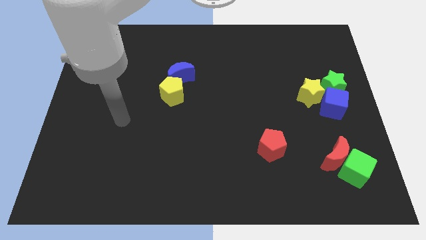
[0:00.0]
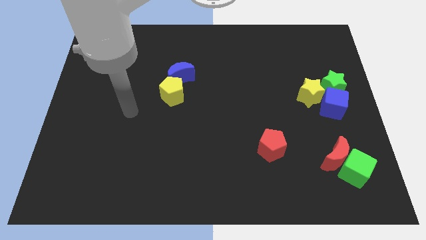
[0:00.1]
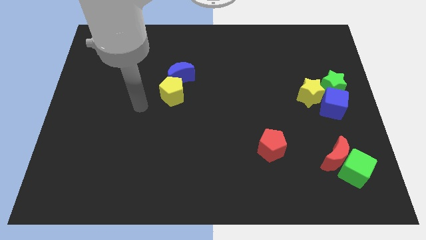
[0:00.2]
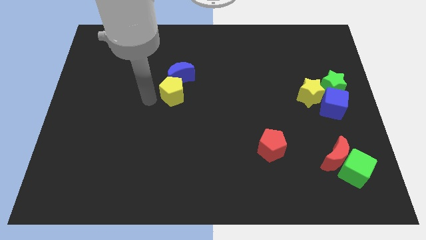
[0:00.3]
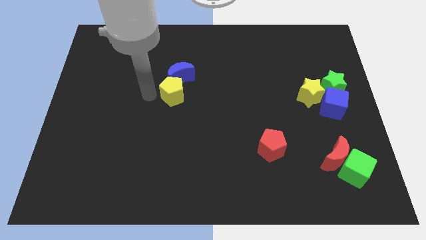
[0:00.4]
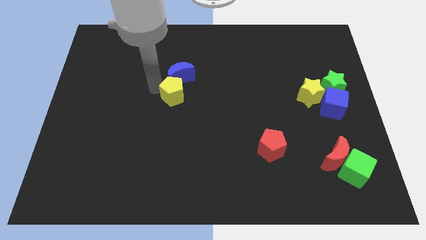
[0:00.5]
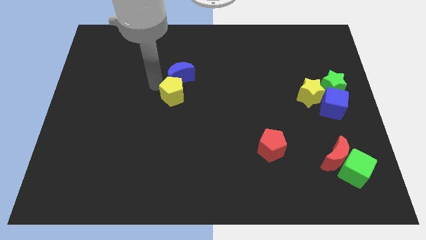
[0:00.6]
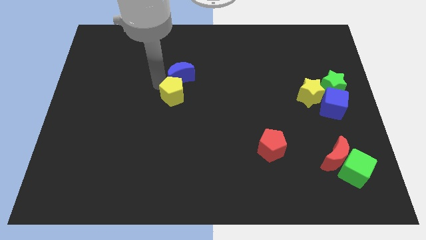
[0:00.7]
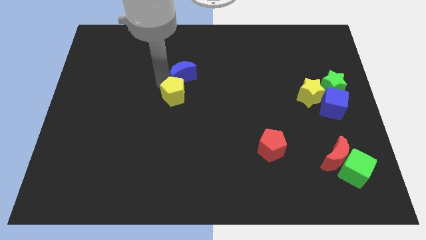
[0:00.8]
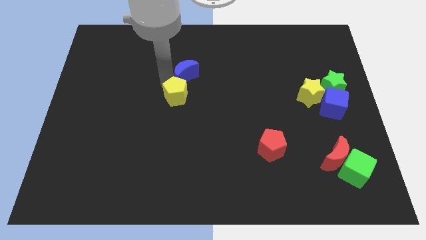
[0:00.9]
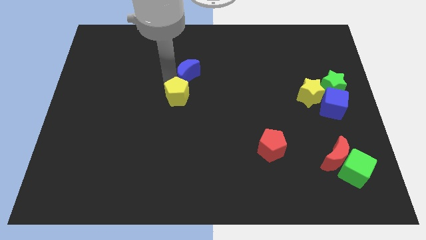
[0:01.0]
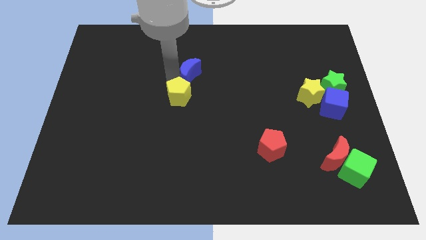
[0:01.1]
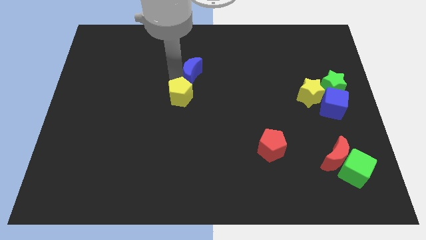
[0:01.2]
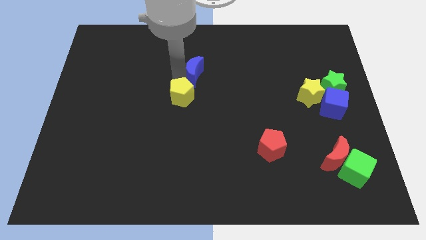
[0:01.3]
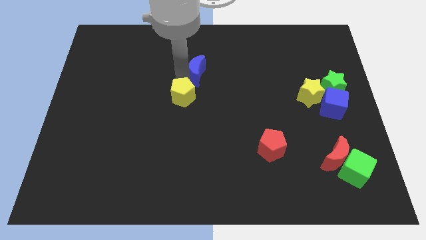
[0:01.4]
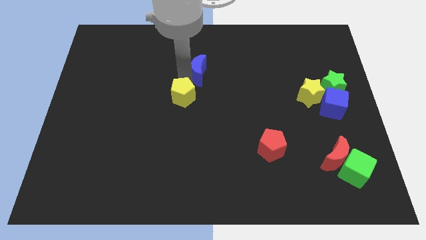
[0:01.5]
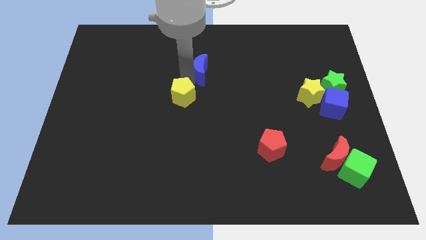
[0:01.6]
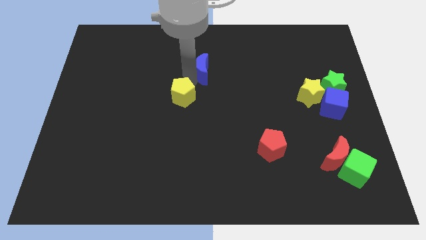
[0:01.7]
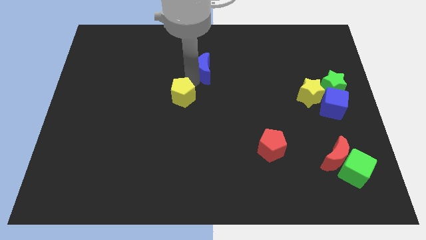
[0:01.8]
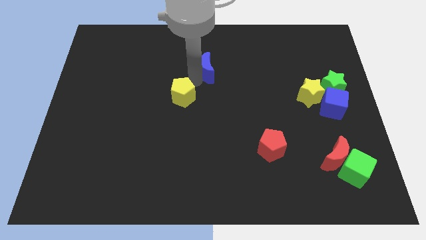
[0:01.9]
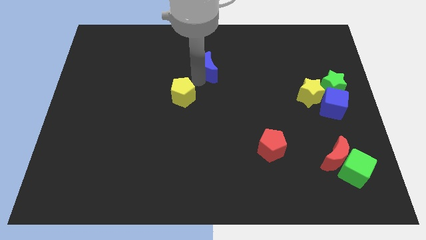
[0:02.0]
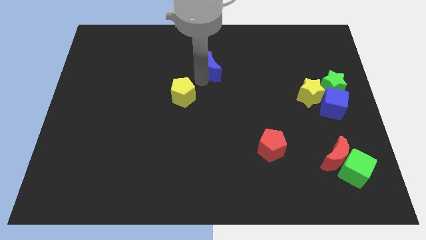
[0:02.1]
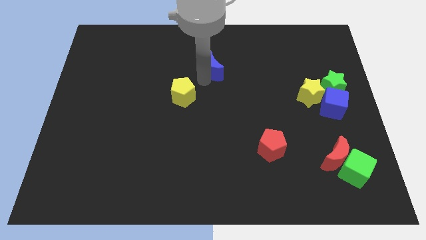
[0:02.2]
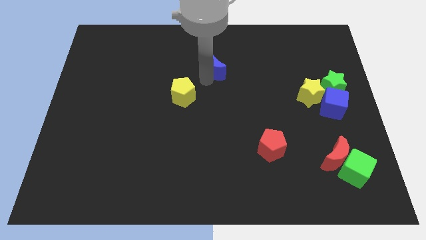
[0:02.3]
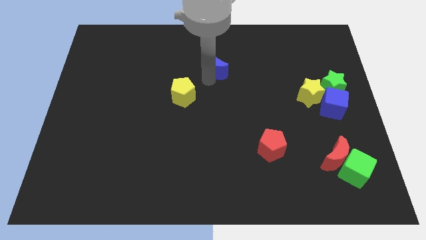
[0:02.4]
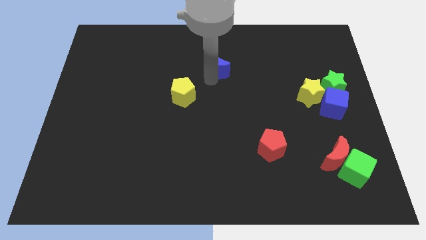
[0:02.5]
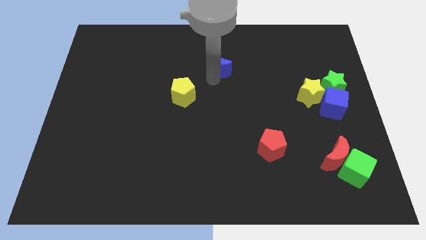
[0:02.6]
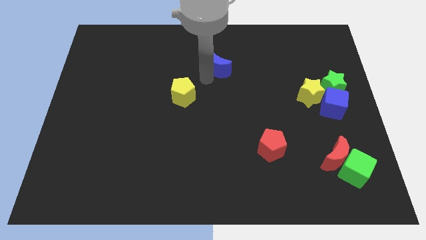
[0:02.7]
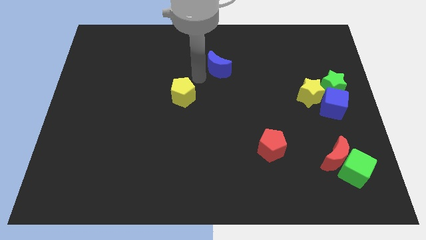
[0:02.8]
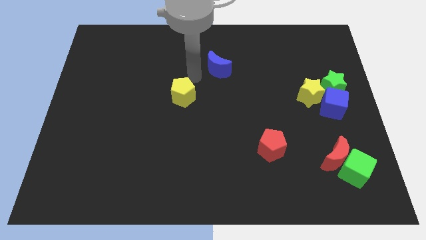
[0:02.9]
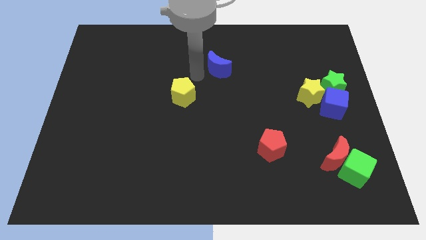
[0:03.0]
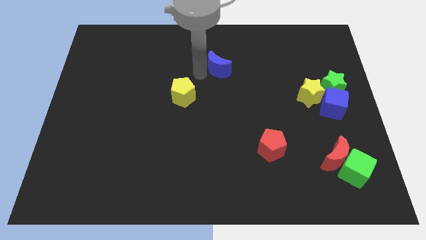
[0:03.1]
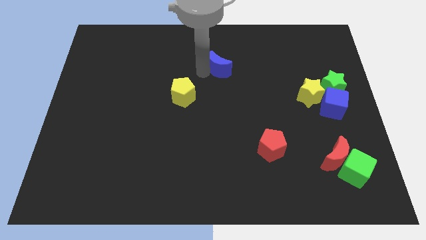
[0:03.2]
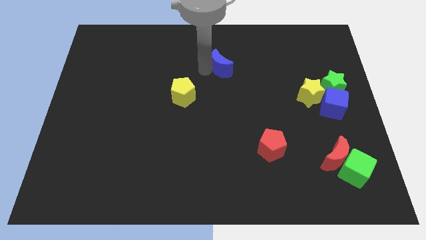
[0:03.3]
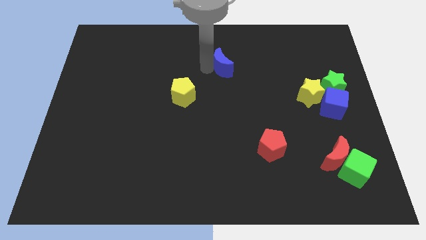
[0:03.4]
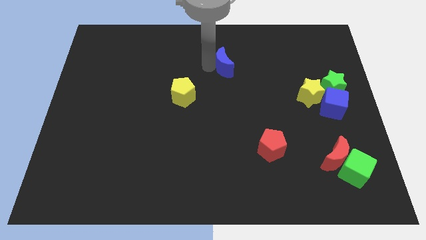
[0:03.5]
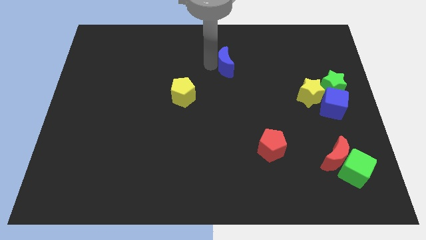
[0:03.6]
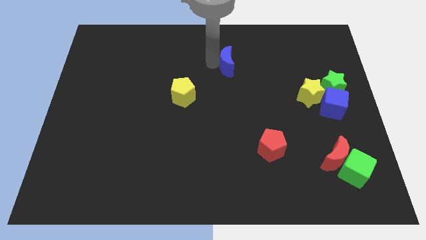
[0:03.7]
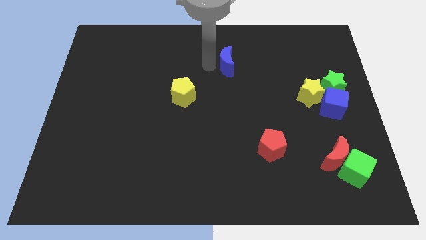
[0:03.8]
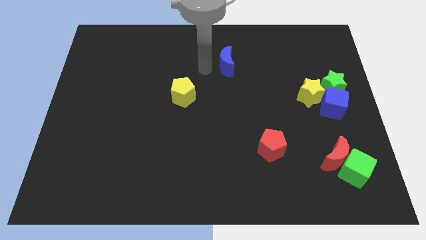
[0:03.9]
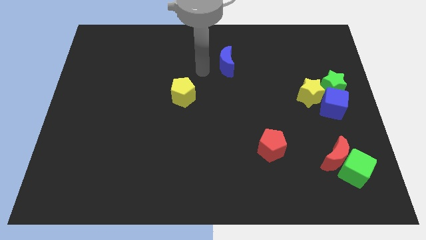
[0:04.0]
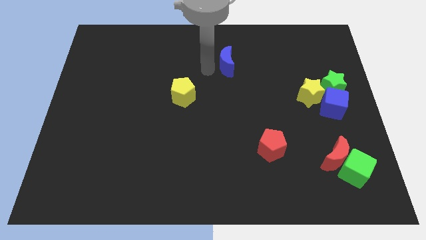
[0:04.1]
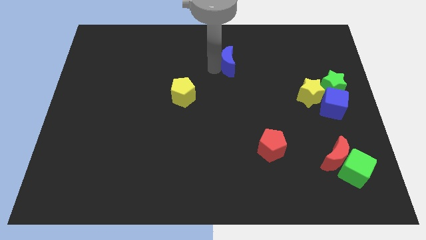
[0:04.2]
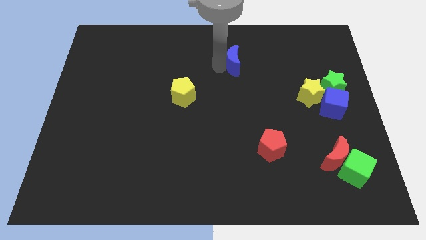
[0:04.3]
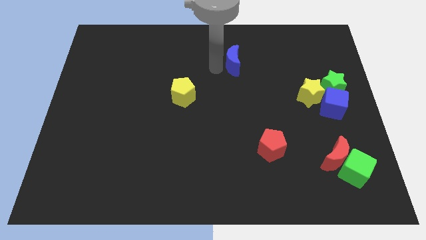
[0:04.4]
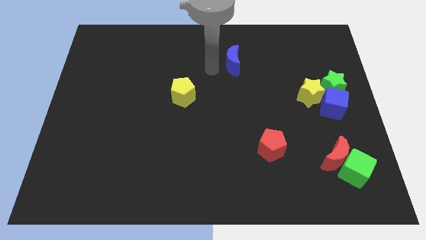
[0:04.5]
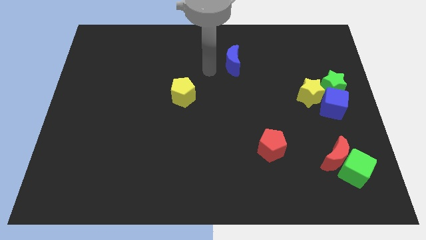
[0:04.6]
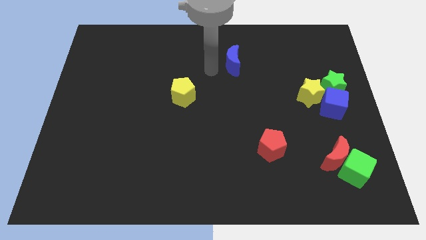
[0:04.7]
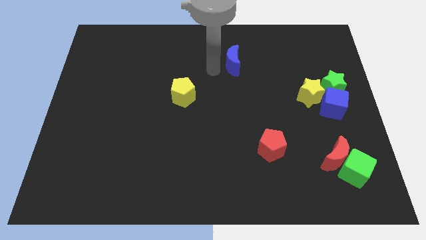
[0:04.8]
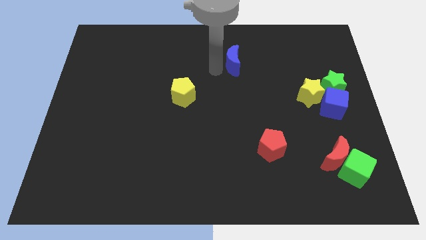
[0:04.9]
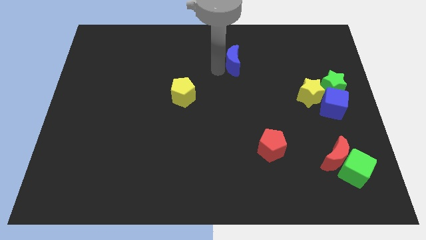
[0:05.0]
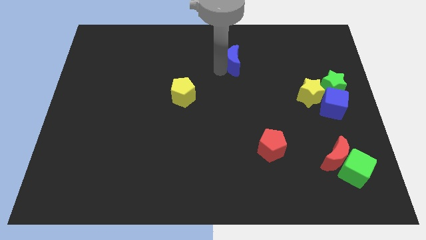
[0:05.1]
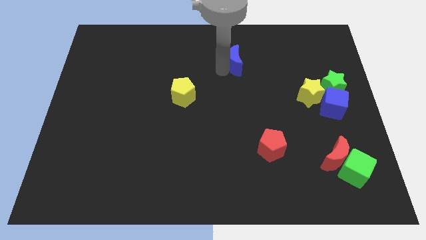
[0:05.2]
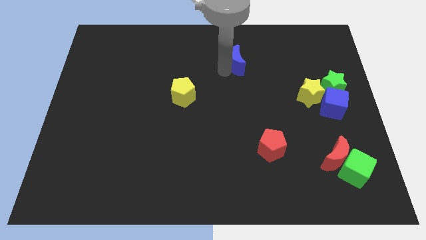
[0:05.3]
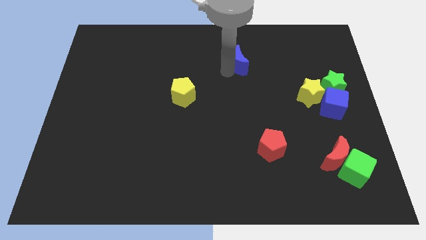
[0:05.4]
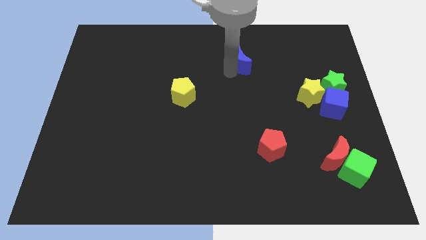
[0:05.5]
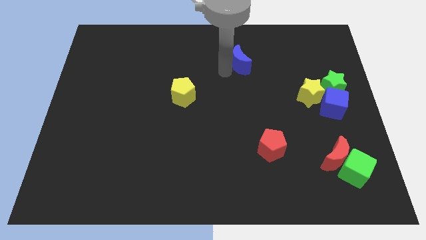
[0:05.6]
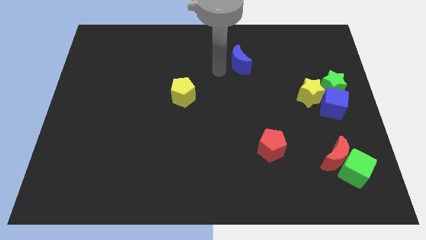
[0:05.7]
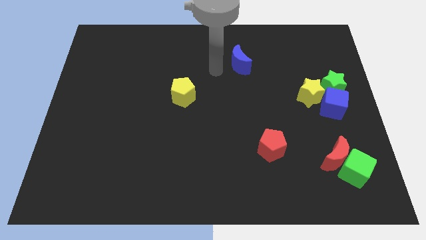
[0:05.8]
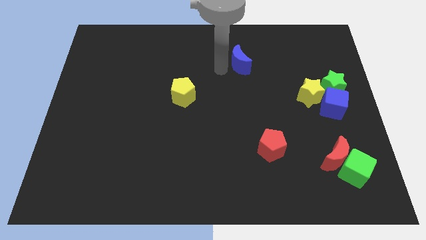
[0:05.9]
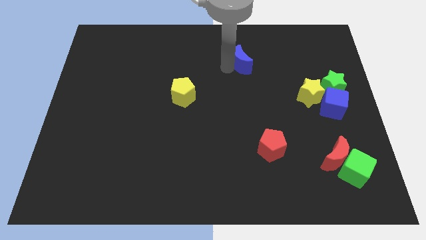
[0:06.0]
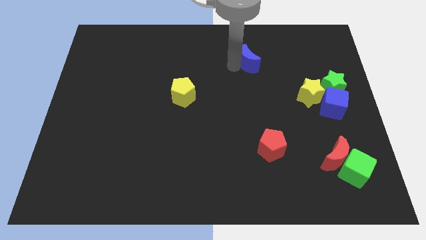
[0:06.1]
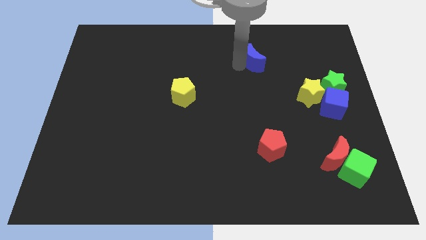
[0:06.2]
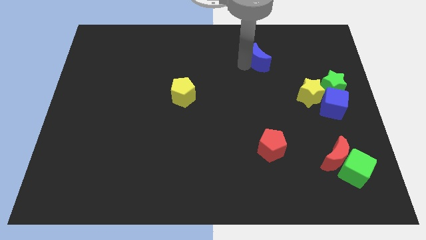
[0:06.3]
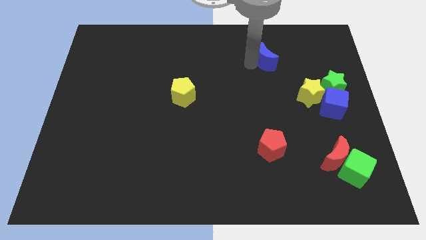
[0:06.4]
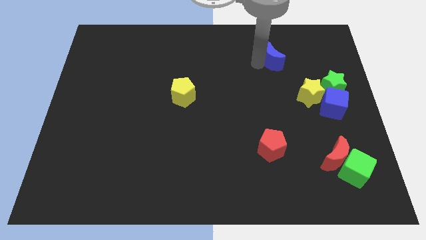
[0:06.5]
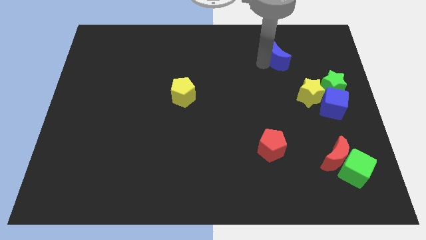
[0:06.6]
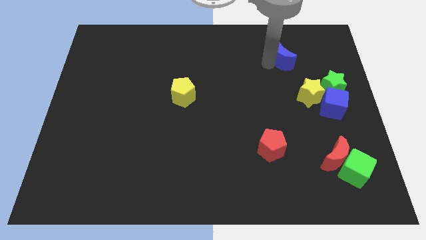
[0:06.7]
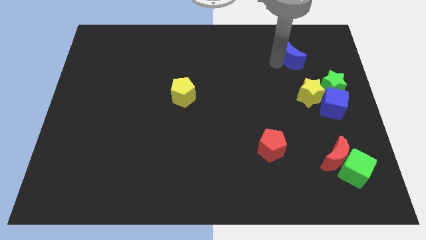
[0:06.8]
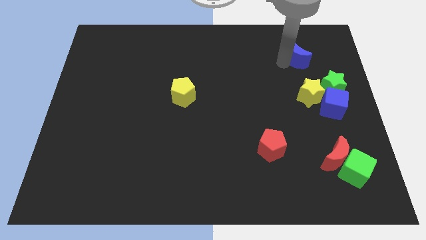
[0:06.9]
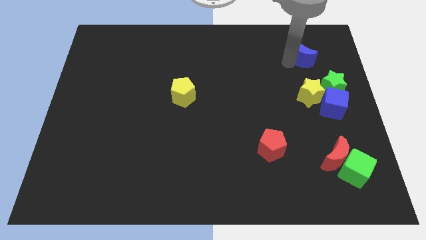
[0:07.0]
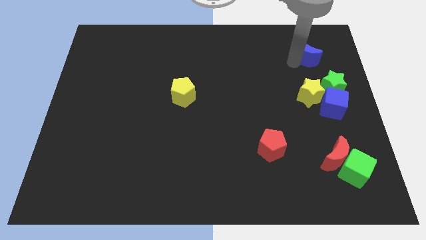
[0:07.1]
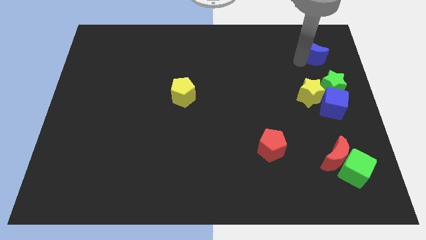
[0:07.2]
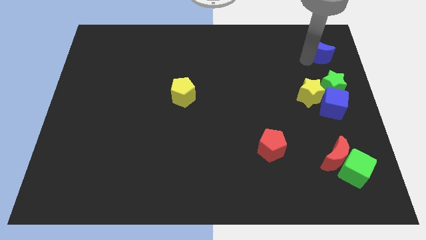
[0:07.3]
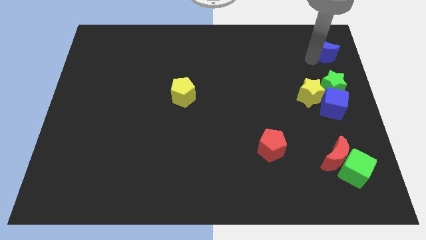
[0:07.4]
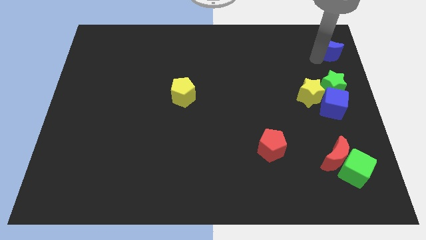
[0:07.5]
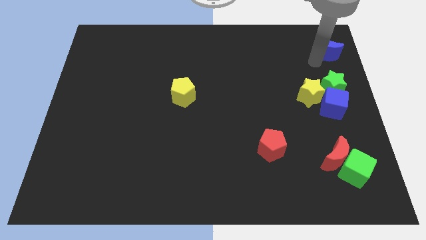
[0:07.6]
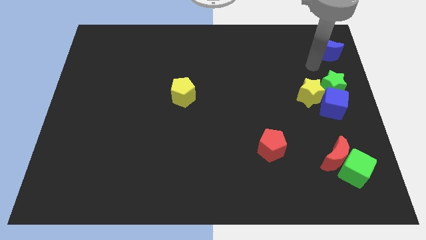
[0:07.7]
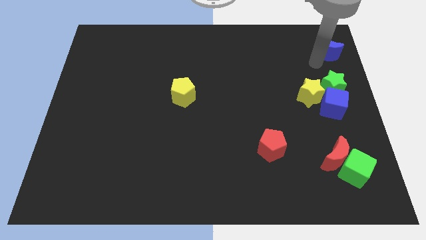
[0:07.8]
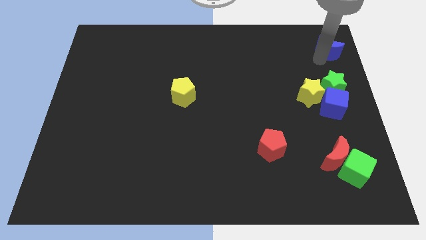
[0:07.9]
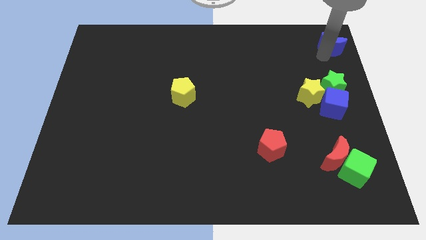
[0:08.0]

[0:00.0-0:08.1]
push the blue moon to the top right corner
